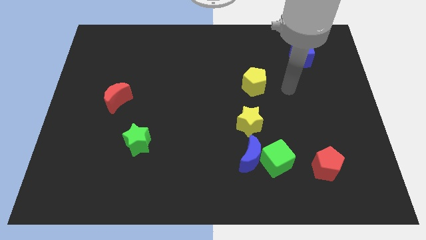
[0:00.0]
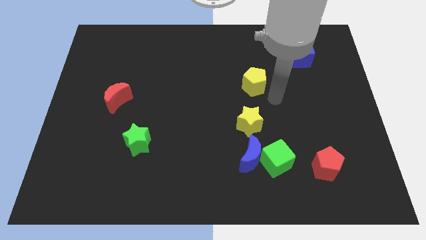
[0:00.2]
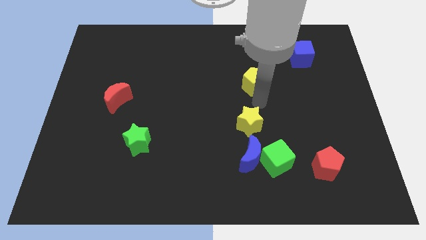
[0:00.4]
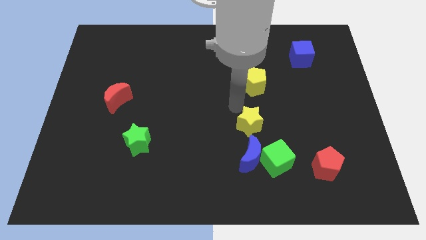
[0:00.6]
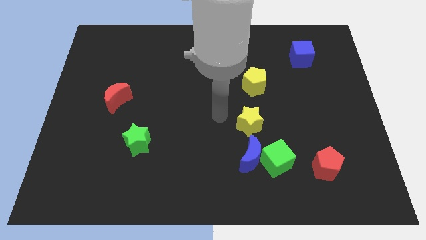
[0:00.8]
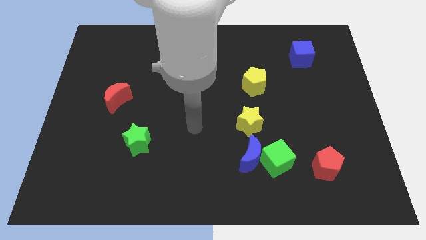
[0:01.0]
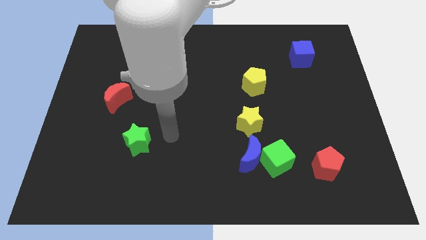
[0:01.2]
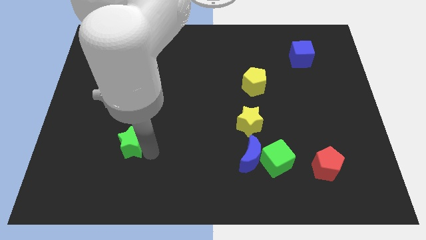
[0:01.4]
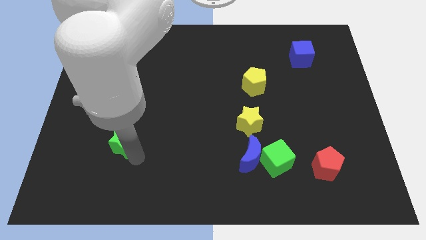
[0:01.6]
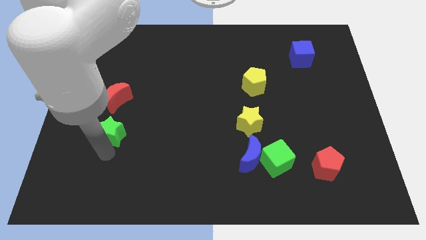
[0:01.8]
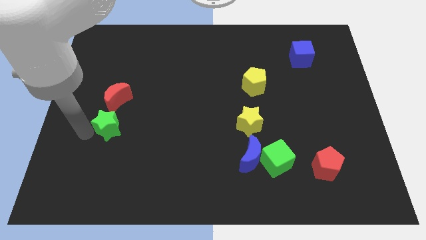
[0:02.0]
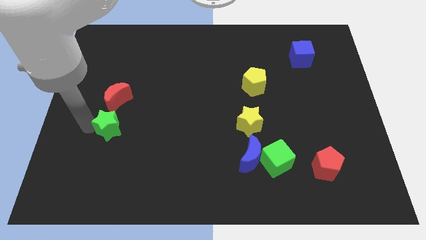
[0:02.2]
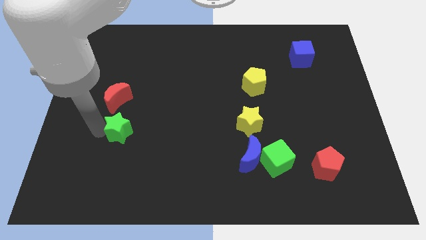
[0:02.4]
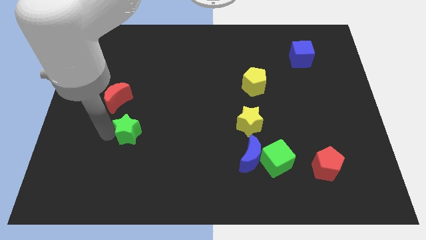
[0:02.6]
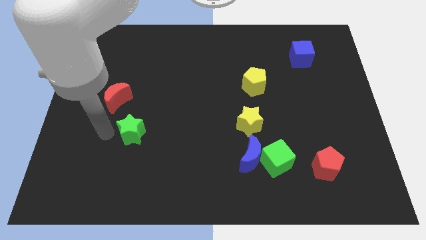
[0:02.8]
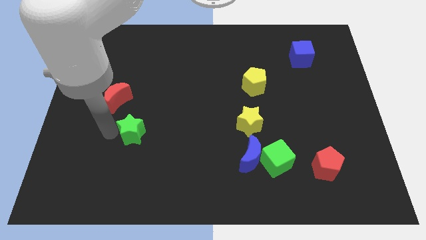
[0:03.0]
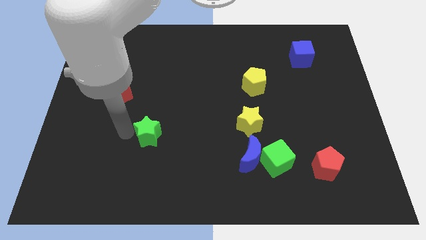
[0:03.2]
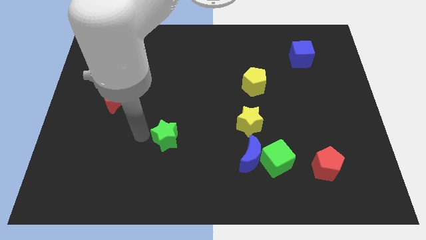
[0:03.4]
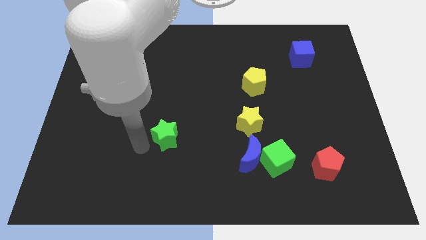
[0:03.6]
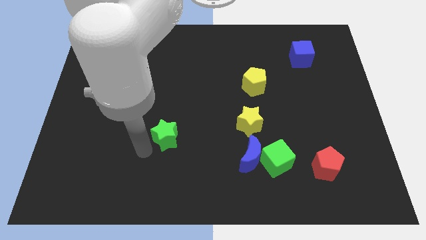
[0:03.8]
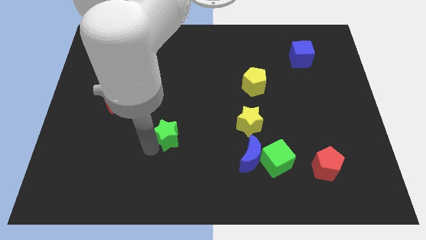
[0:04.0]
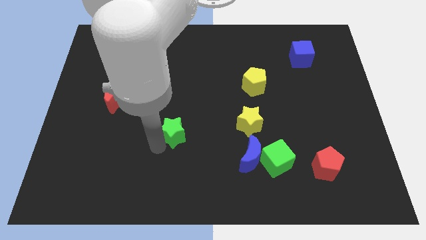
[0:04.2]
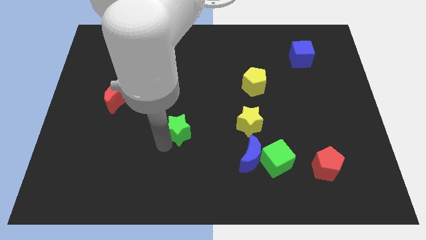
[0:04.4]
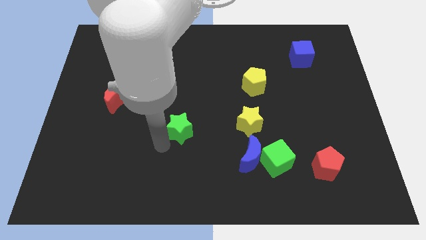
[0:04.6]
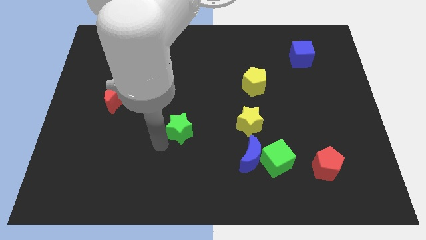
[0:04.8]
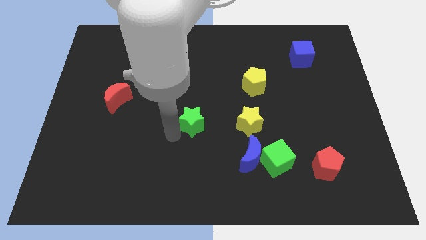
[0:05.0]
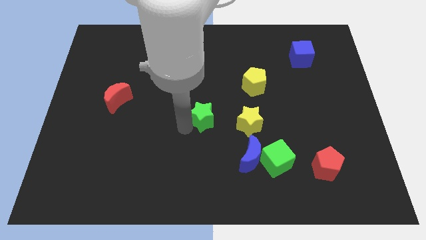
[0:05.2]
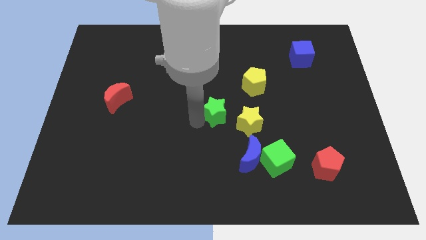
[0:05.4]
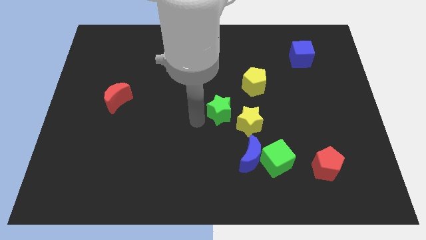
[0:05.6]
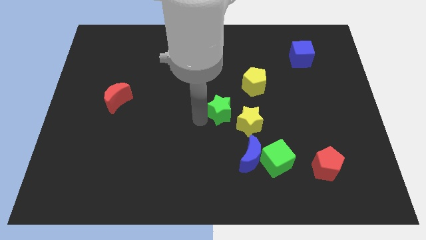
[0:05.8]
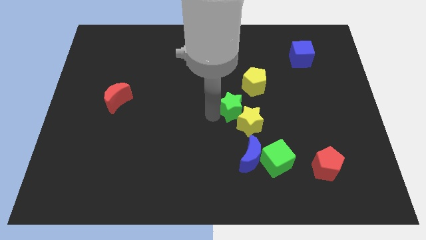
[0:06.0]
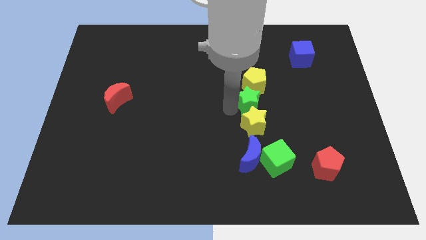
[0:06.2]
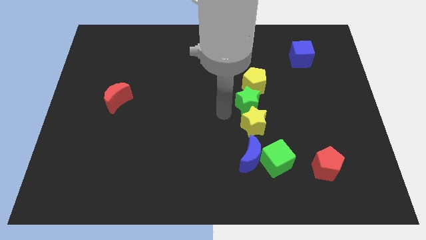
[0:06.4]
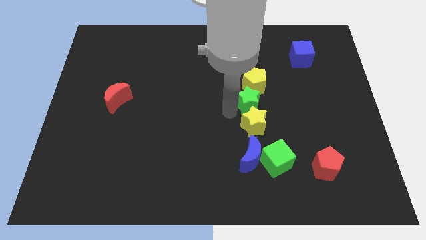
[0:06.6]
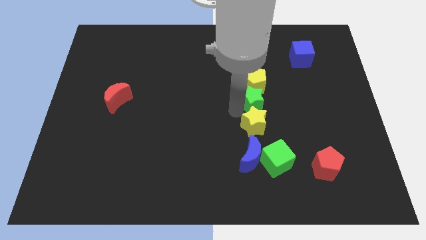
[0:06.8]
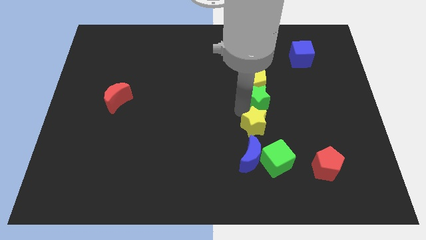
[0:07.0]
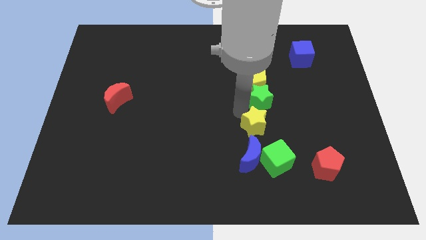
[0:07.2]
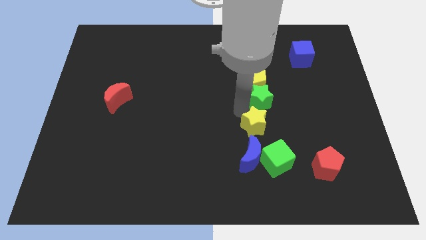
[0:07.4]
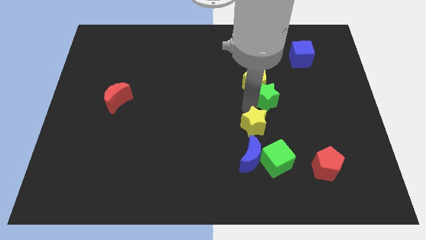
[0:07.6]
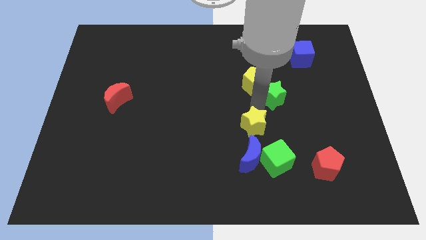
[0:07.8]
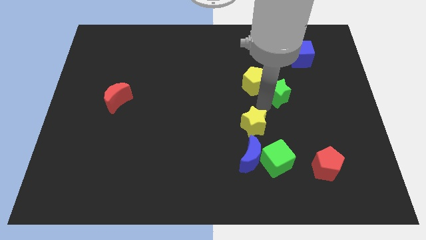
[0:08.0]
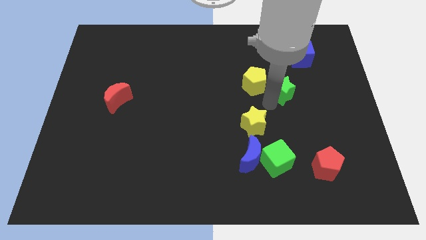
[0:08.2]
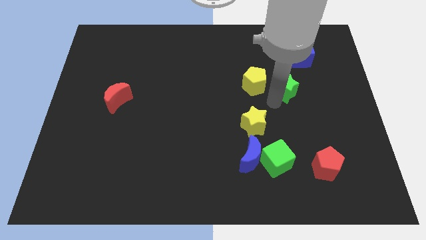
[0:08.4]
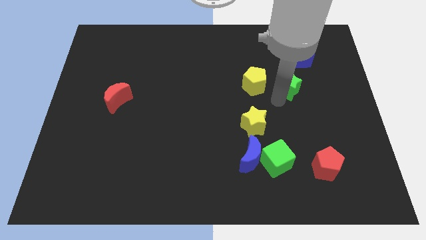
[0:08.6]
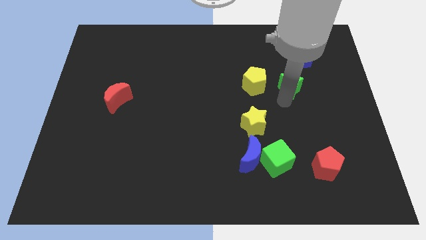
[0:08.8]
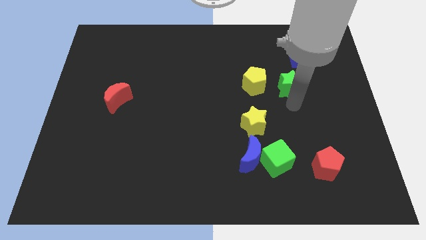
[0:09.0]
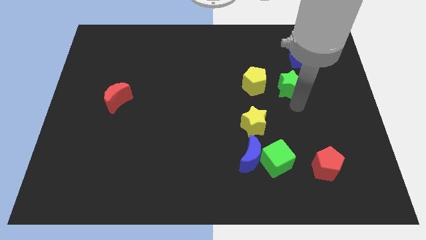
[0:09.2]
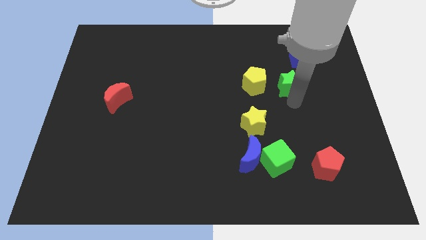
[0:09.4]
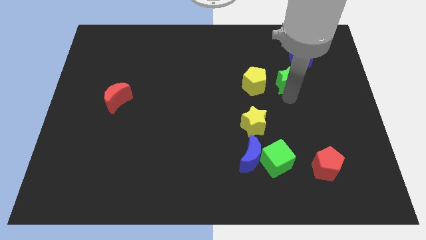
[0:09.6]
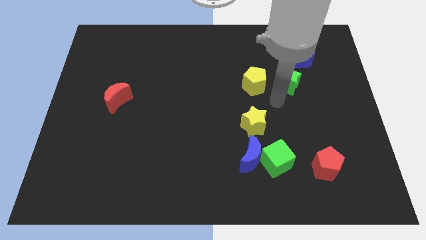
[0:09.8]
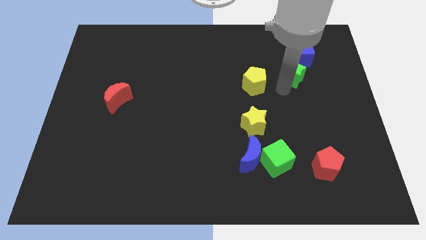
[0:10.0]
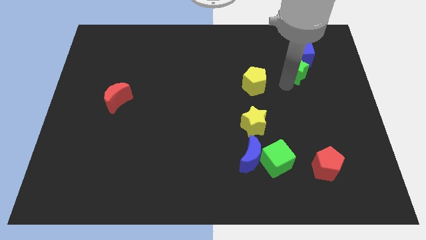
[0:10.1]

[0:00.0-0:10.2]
move the green star next to the blue cube

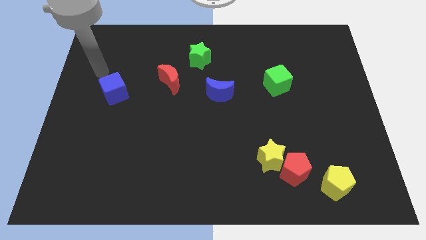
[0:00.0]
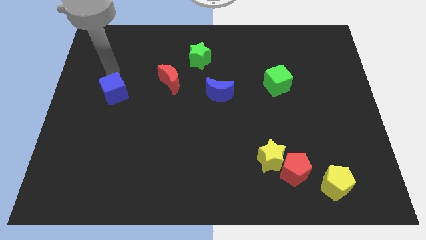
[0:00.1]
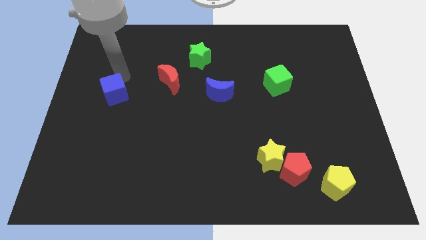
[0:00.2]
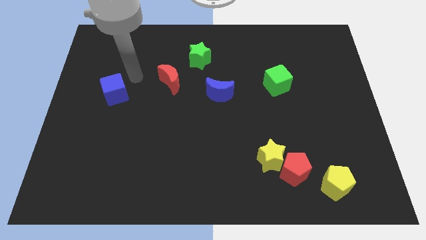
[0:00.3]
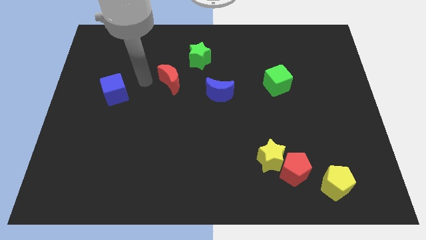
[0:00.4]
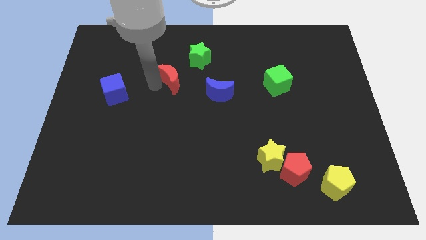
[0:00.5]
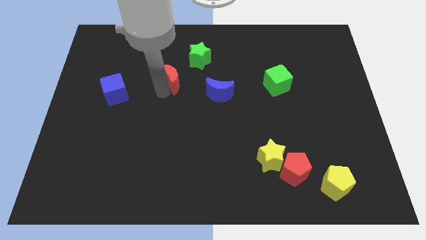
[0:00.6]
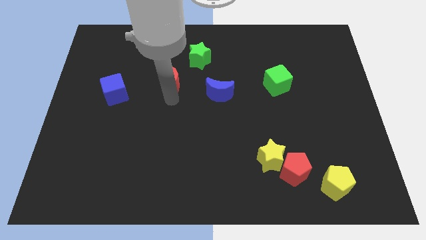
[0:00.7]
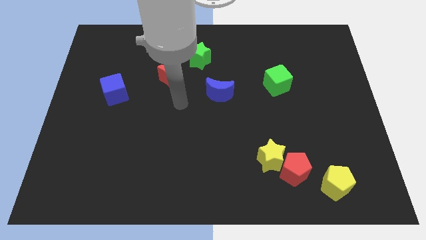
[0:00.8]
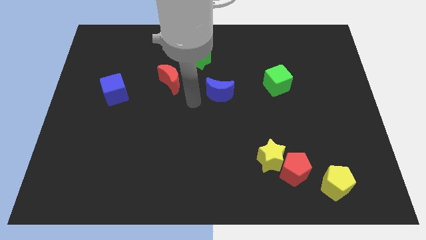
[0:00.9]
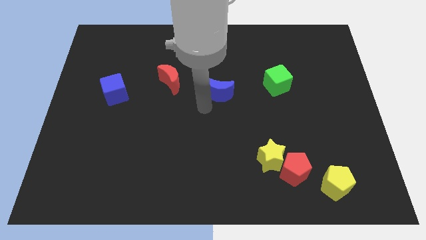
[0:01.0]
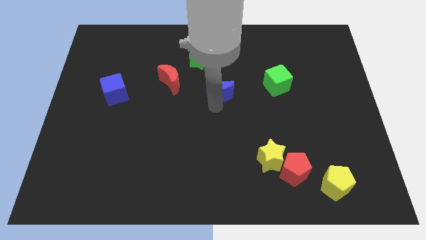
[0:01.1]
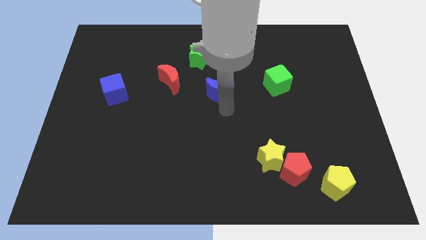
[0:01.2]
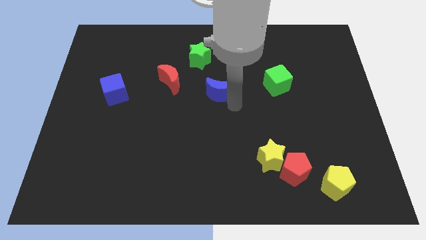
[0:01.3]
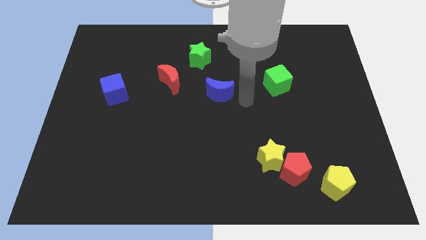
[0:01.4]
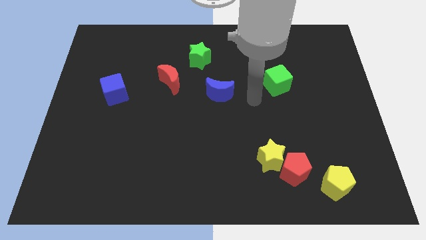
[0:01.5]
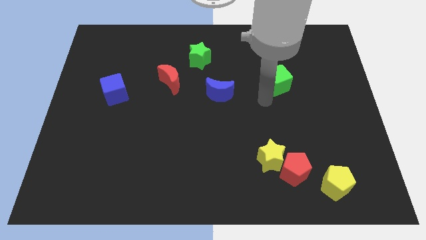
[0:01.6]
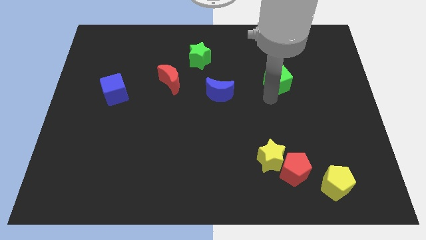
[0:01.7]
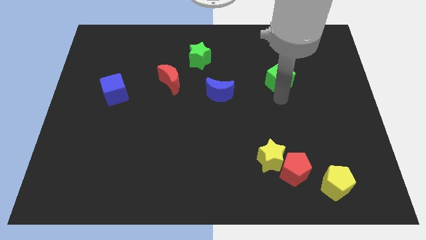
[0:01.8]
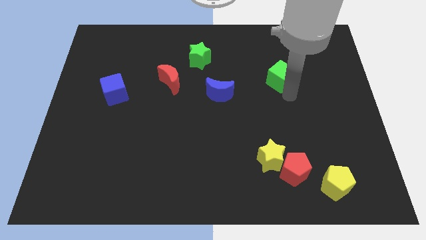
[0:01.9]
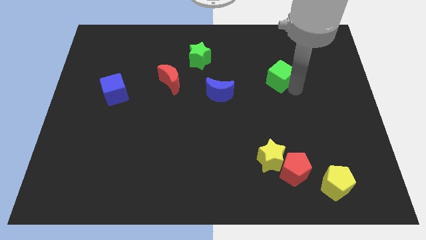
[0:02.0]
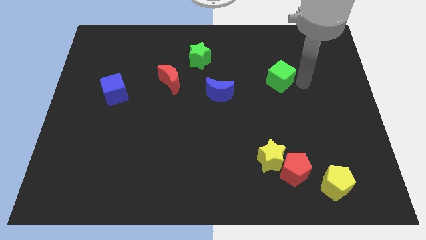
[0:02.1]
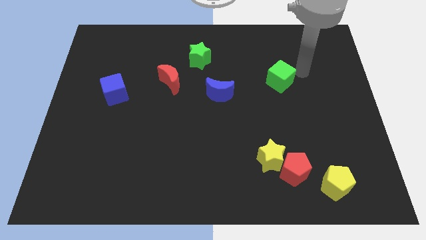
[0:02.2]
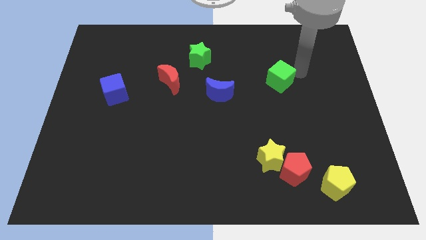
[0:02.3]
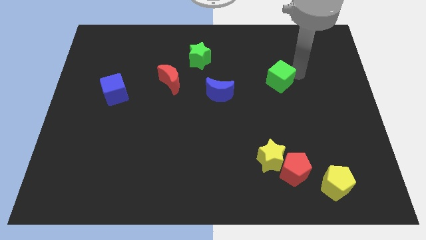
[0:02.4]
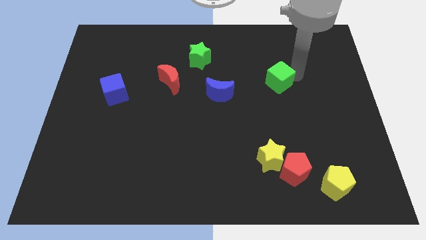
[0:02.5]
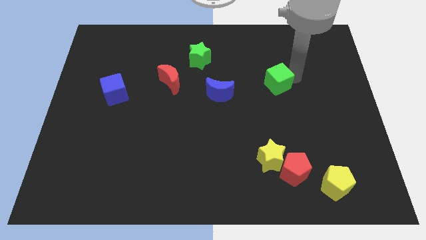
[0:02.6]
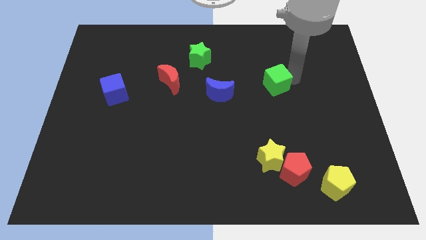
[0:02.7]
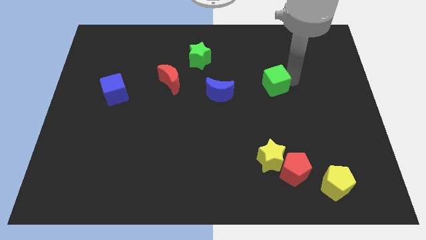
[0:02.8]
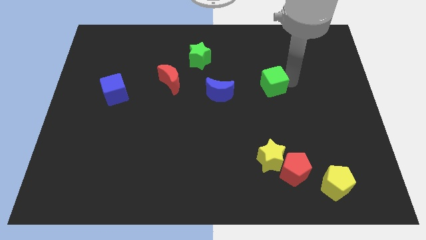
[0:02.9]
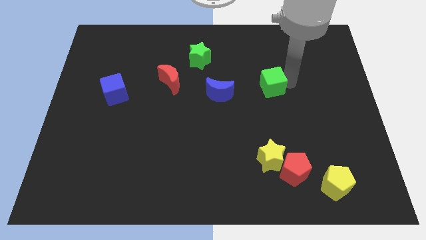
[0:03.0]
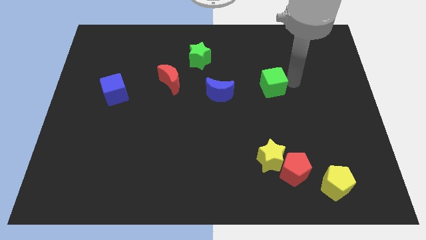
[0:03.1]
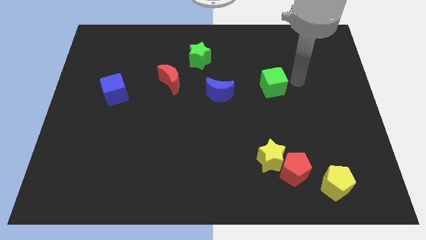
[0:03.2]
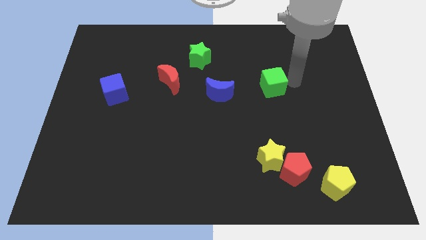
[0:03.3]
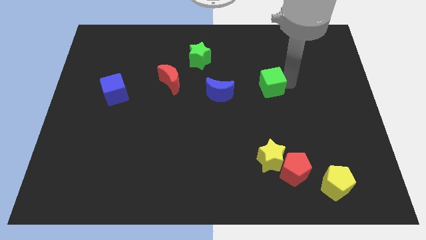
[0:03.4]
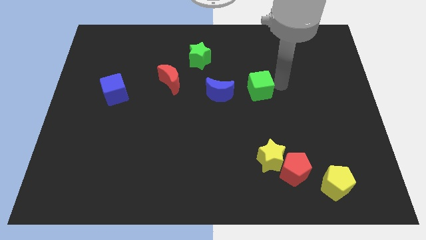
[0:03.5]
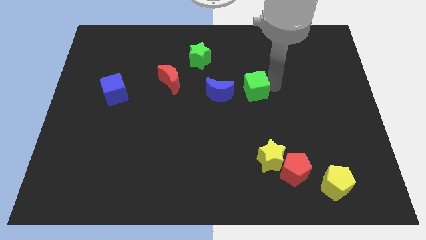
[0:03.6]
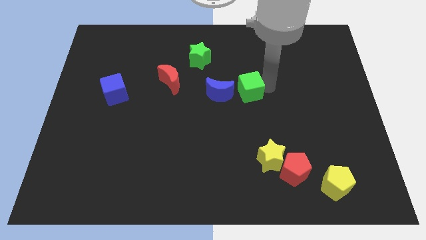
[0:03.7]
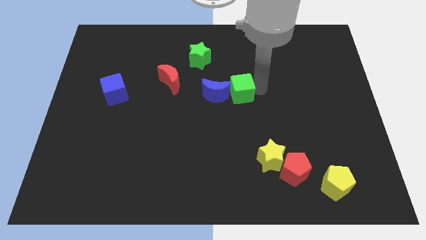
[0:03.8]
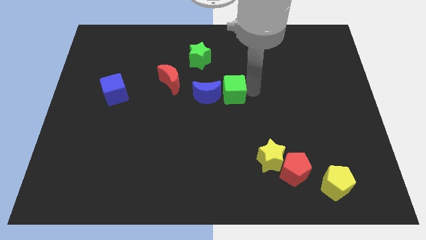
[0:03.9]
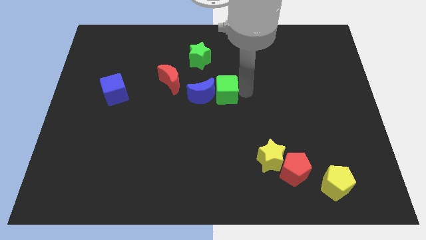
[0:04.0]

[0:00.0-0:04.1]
push the green cube close to the blue moon
